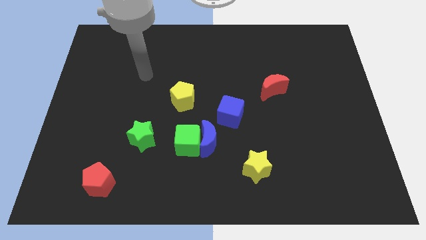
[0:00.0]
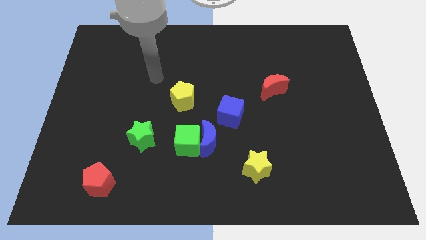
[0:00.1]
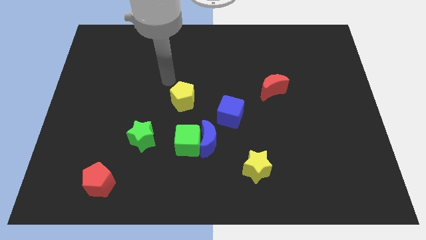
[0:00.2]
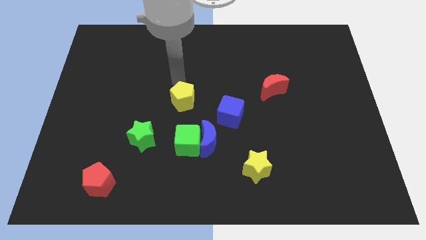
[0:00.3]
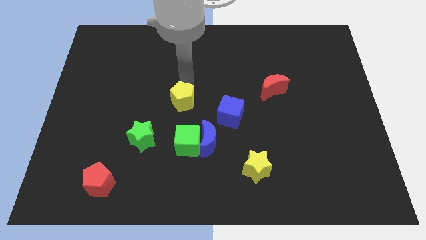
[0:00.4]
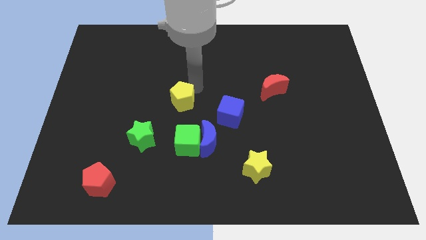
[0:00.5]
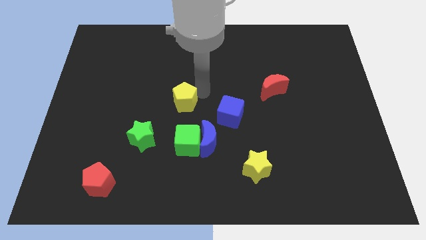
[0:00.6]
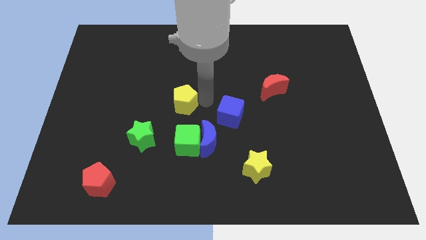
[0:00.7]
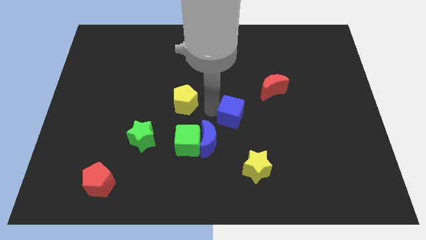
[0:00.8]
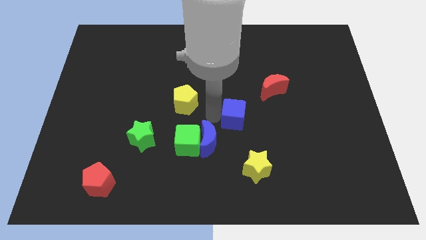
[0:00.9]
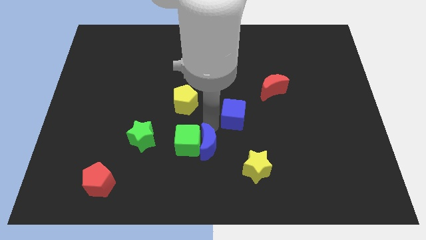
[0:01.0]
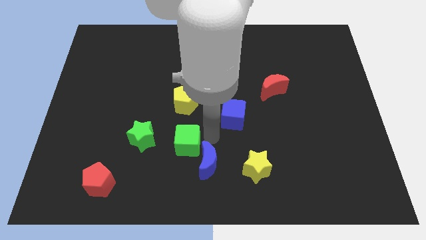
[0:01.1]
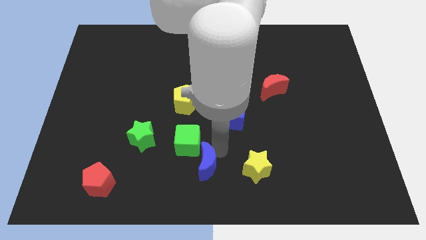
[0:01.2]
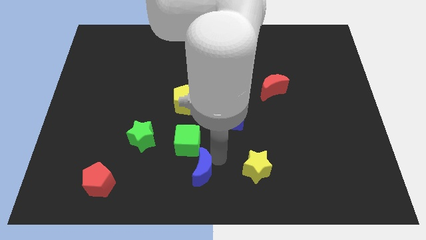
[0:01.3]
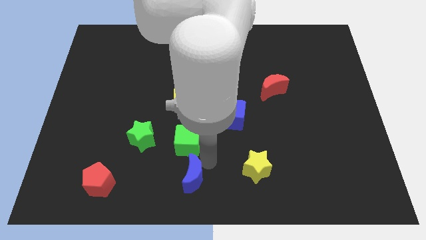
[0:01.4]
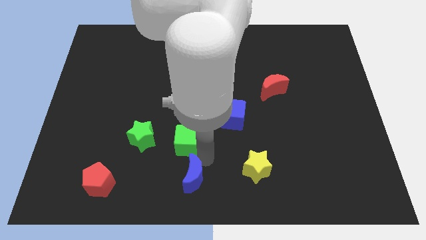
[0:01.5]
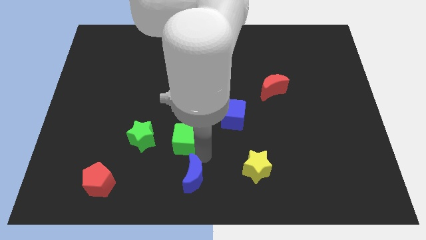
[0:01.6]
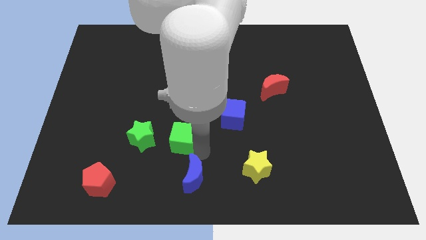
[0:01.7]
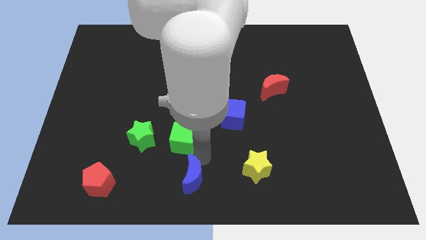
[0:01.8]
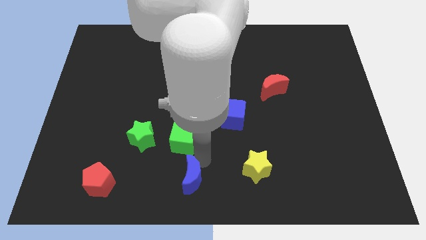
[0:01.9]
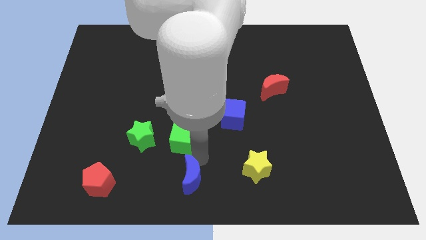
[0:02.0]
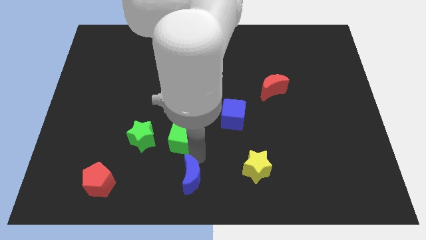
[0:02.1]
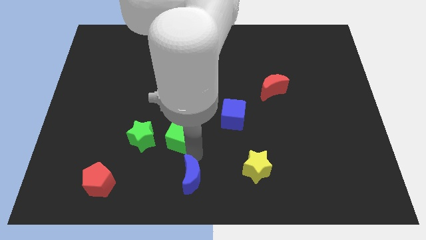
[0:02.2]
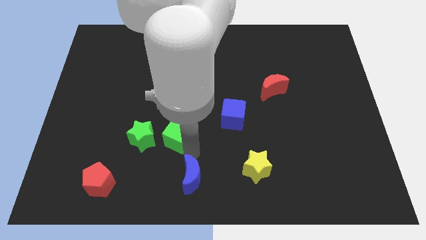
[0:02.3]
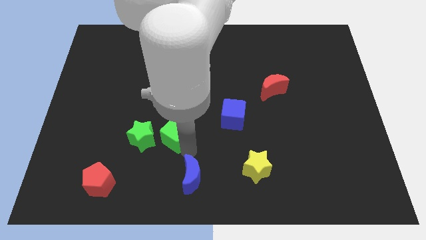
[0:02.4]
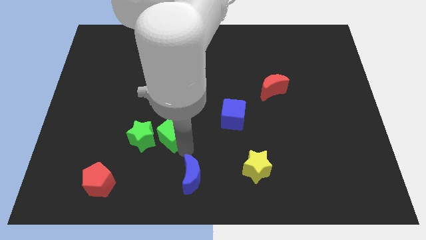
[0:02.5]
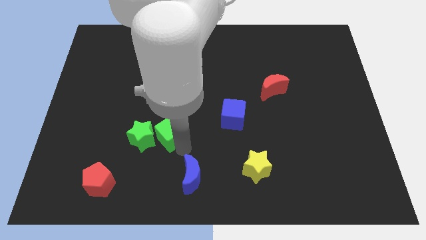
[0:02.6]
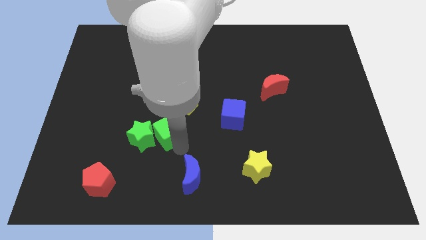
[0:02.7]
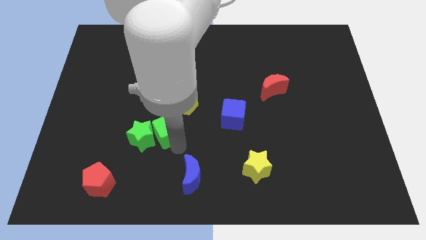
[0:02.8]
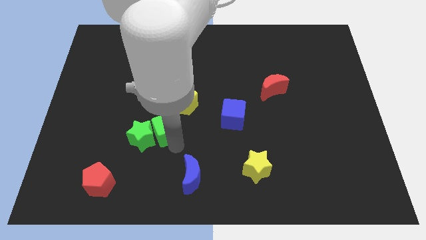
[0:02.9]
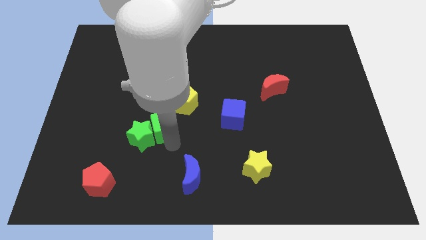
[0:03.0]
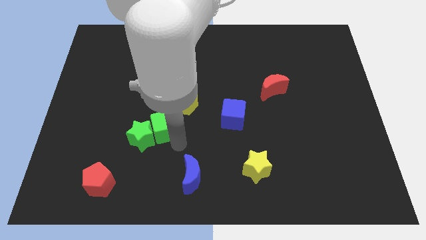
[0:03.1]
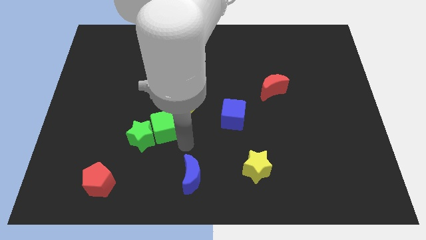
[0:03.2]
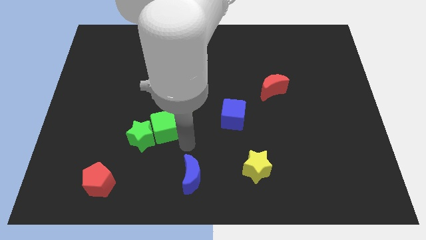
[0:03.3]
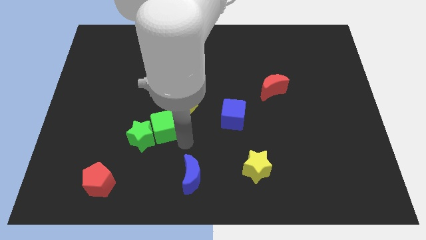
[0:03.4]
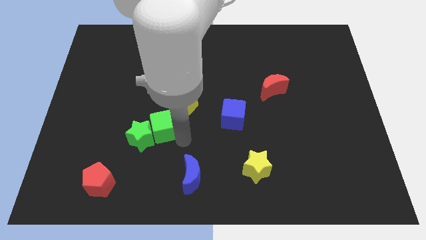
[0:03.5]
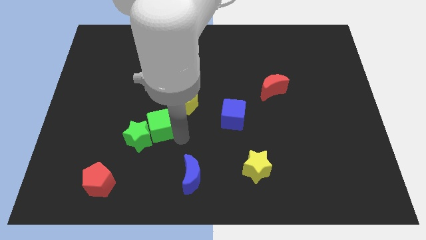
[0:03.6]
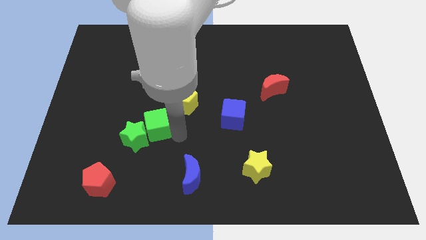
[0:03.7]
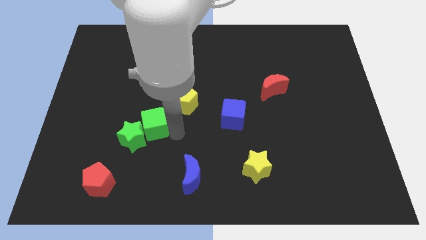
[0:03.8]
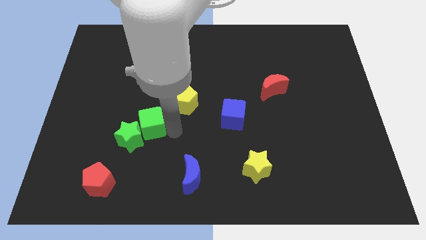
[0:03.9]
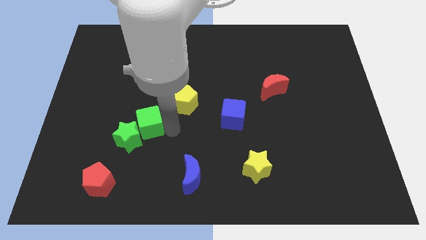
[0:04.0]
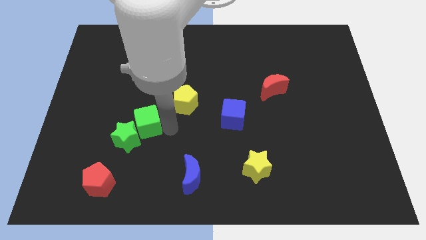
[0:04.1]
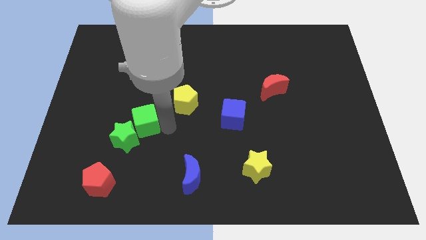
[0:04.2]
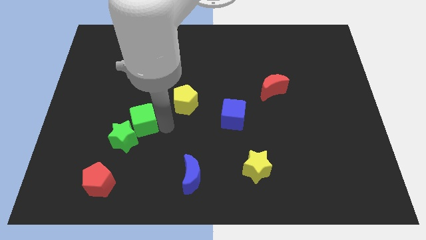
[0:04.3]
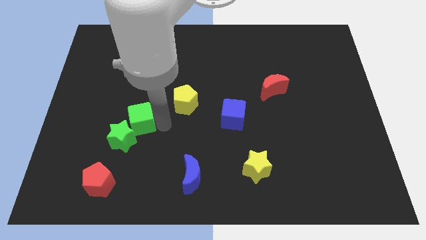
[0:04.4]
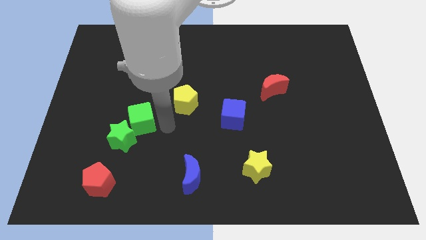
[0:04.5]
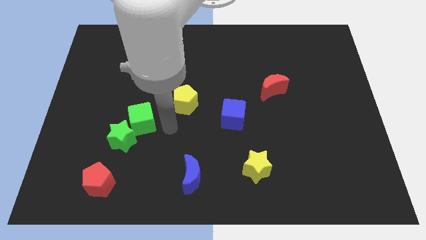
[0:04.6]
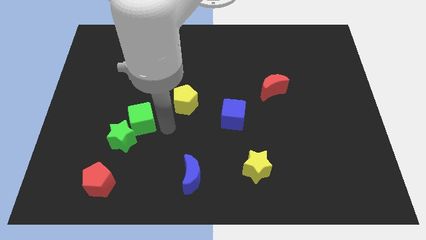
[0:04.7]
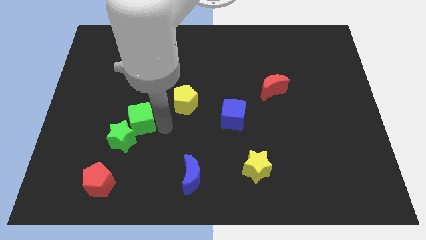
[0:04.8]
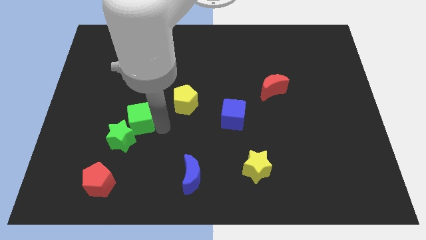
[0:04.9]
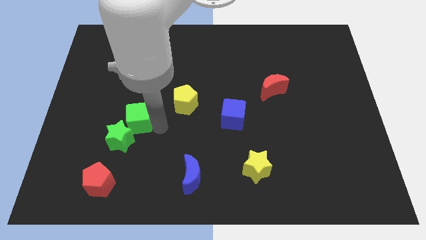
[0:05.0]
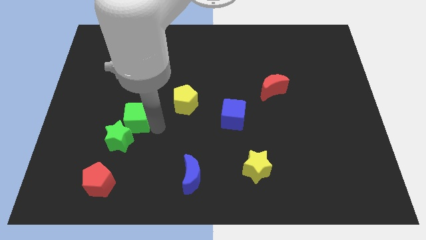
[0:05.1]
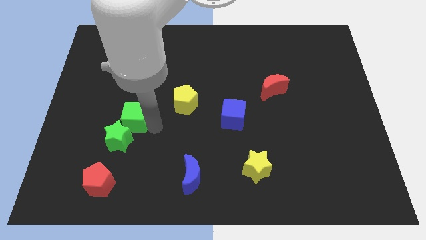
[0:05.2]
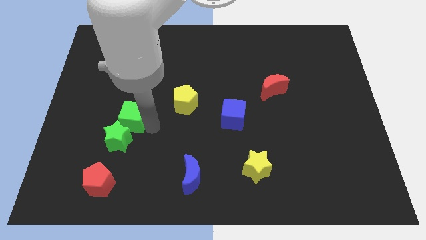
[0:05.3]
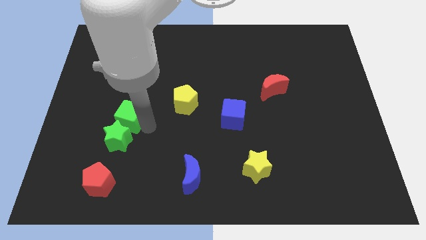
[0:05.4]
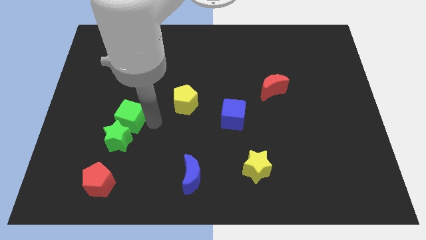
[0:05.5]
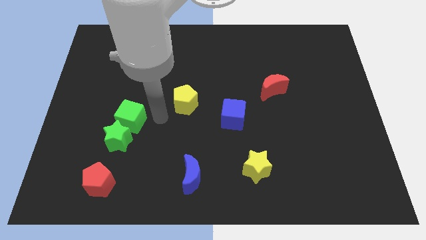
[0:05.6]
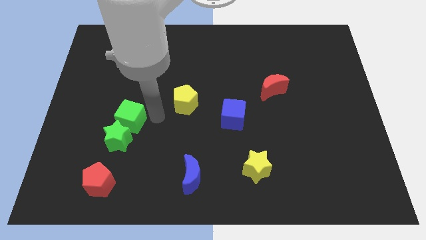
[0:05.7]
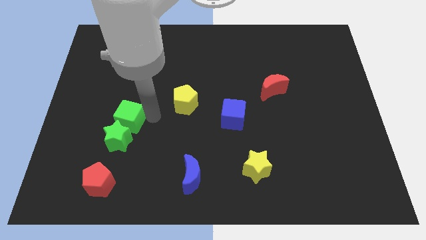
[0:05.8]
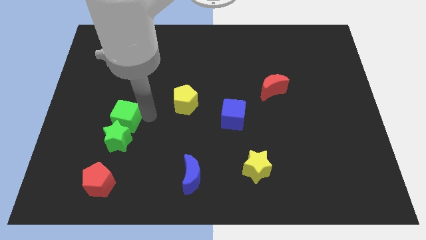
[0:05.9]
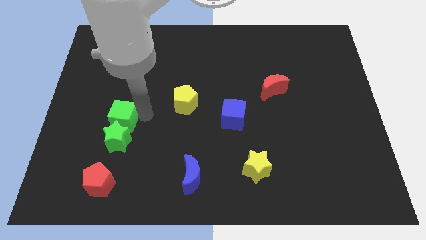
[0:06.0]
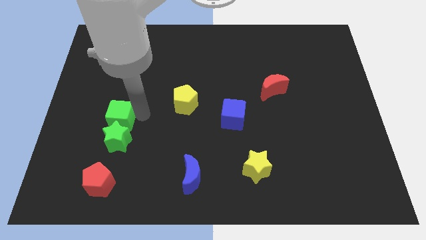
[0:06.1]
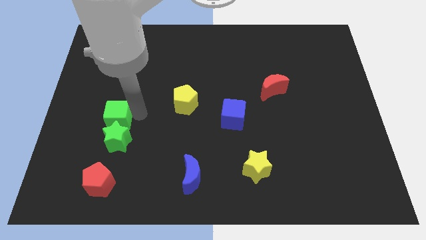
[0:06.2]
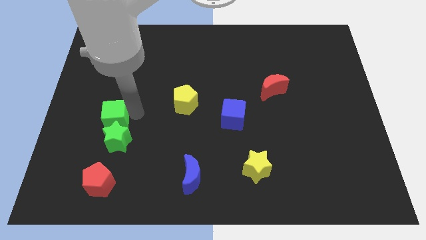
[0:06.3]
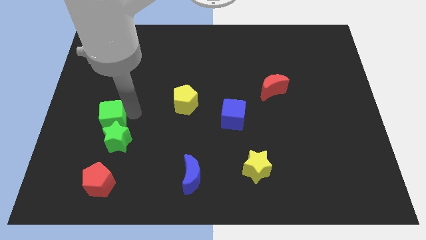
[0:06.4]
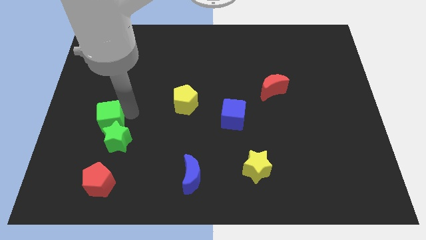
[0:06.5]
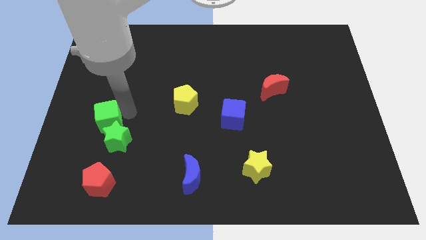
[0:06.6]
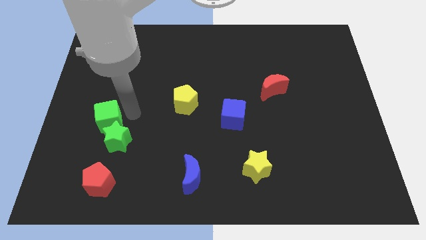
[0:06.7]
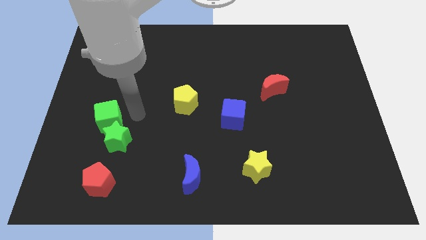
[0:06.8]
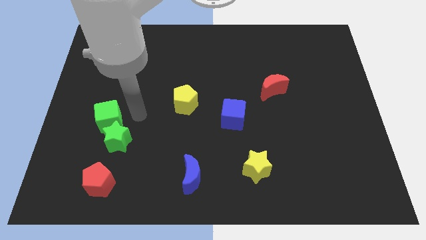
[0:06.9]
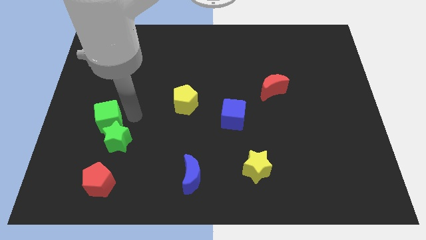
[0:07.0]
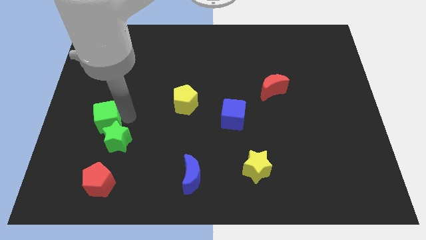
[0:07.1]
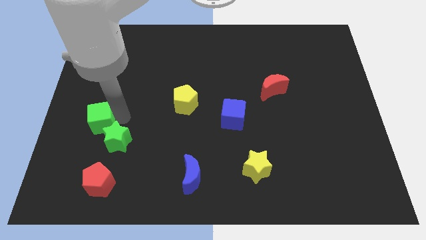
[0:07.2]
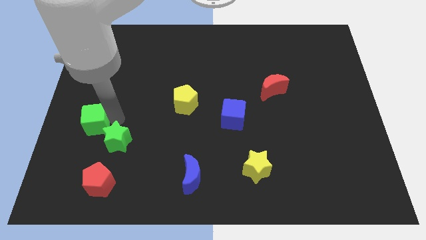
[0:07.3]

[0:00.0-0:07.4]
put the green cube to the left side
